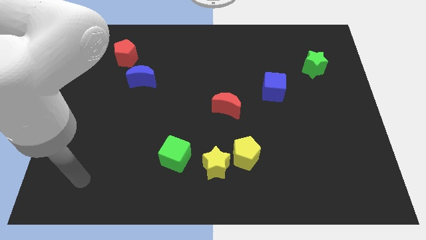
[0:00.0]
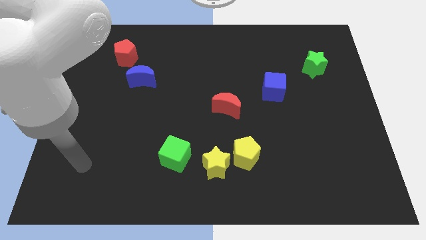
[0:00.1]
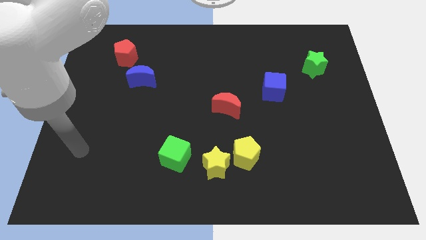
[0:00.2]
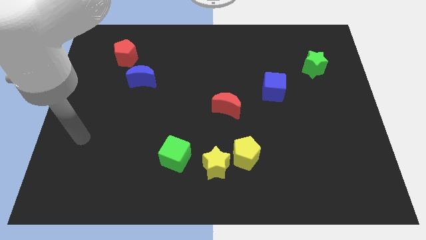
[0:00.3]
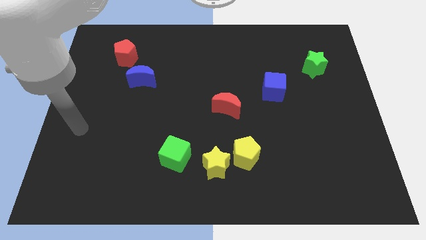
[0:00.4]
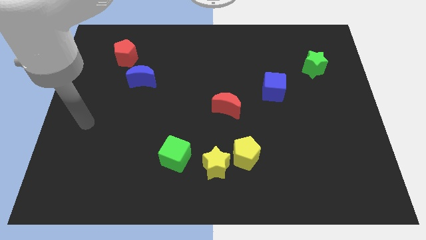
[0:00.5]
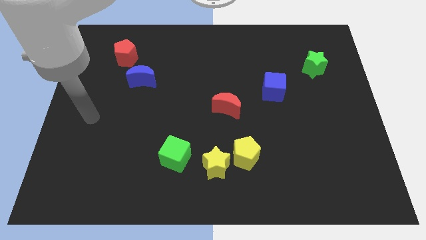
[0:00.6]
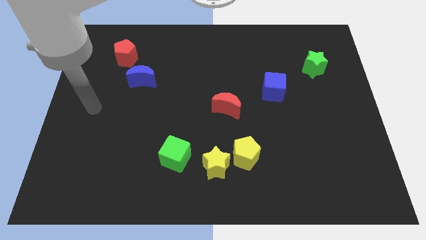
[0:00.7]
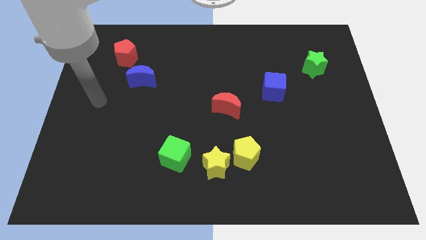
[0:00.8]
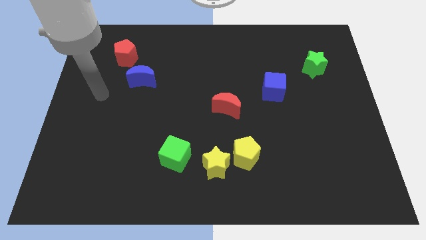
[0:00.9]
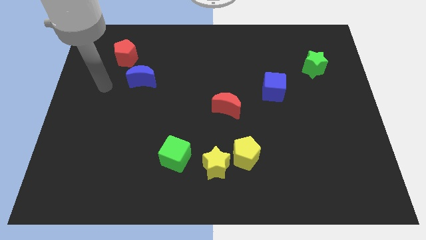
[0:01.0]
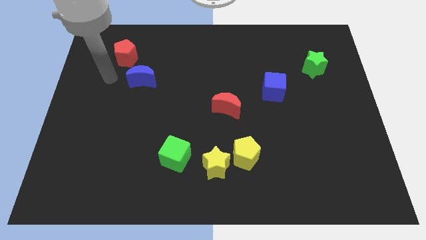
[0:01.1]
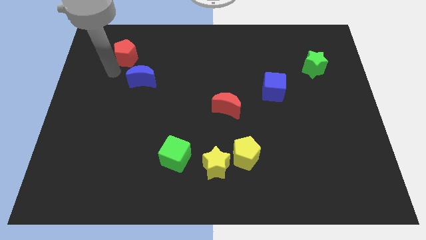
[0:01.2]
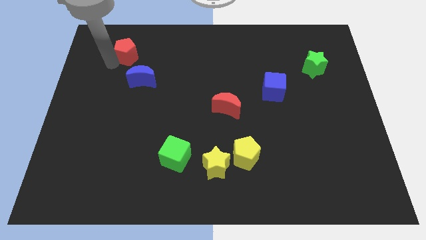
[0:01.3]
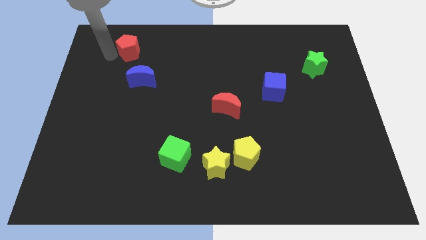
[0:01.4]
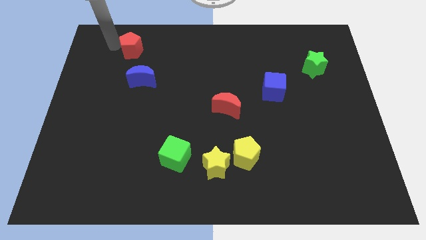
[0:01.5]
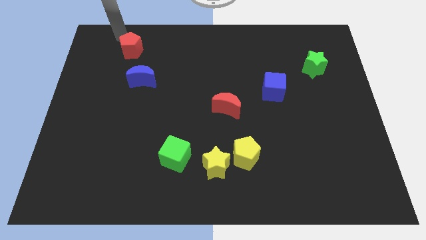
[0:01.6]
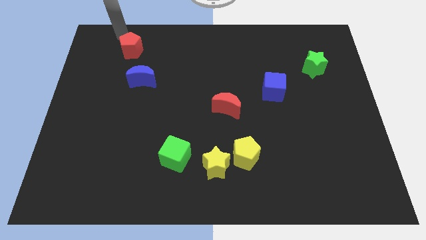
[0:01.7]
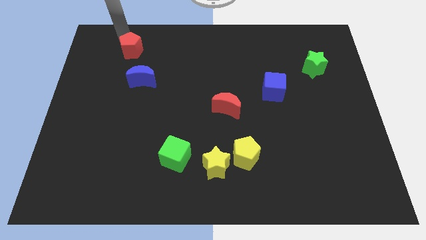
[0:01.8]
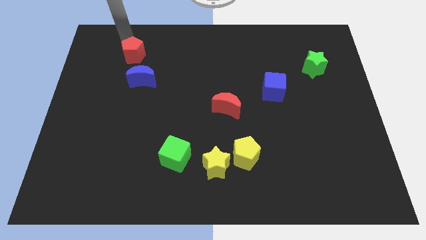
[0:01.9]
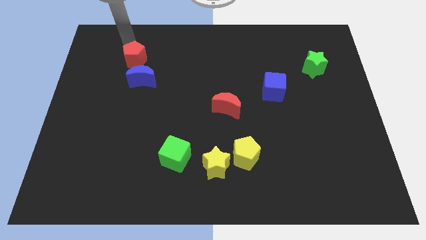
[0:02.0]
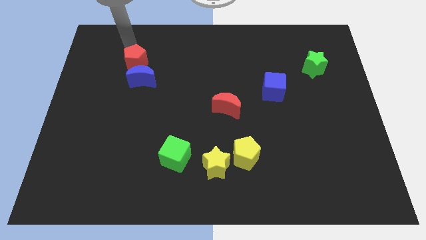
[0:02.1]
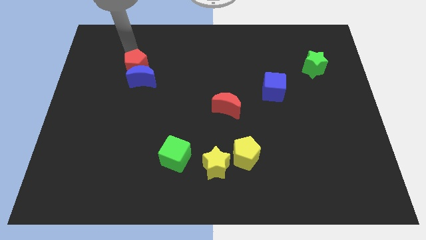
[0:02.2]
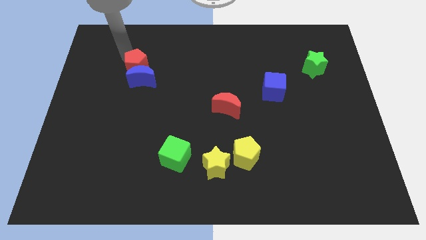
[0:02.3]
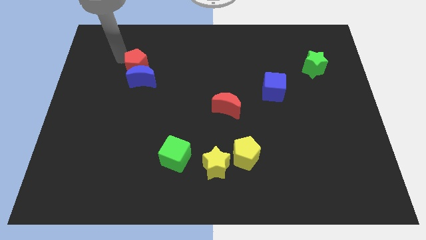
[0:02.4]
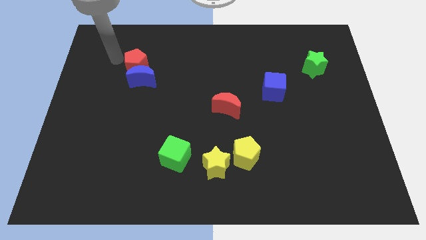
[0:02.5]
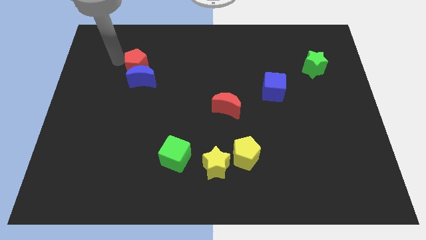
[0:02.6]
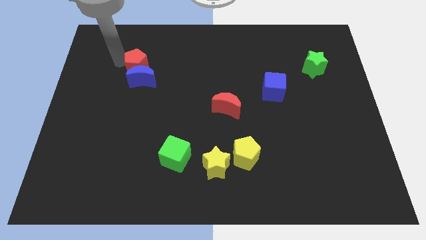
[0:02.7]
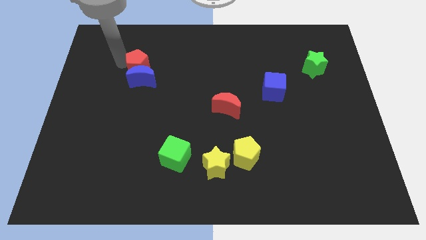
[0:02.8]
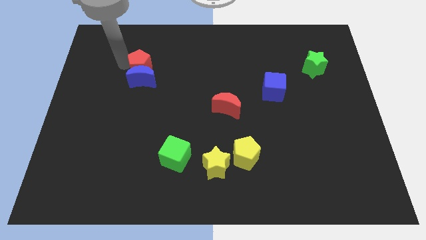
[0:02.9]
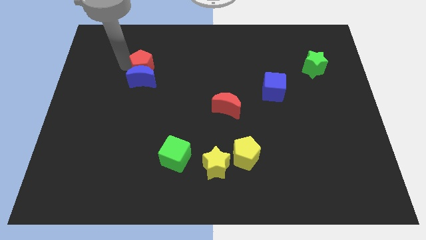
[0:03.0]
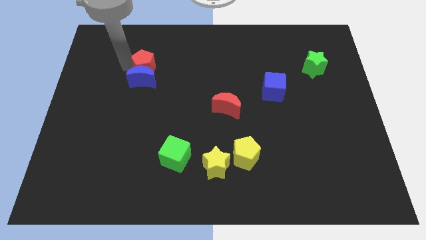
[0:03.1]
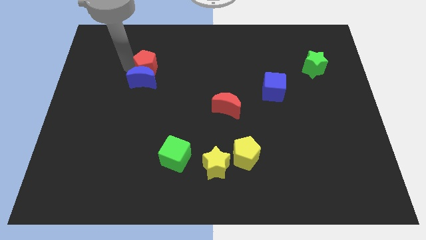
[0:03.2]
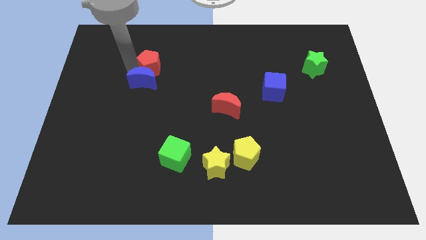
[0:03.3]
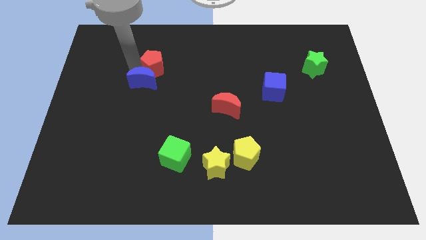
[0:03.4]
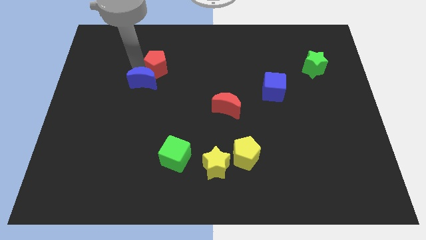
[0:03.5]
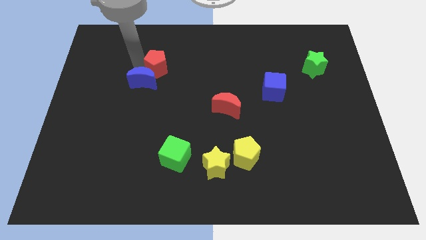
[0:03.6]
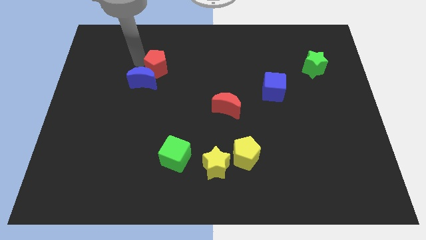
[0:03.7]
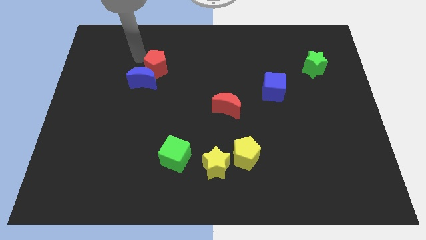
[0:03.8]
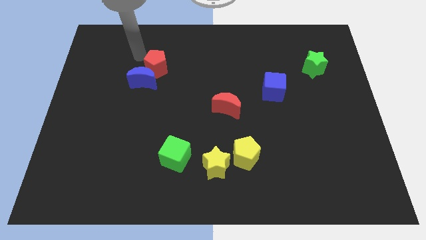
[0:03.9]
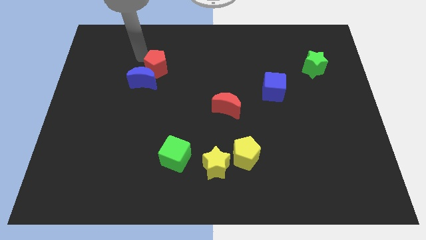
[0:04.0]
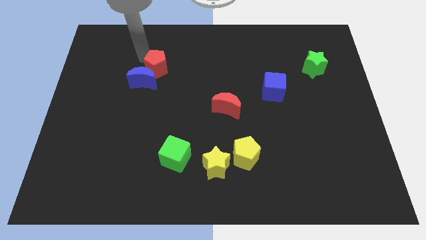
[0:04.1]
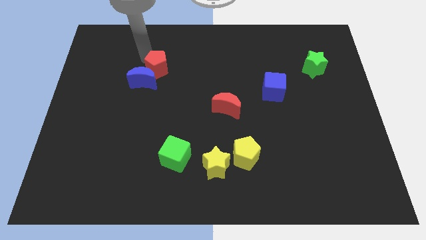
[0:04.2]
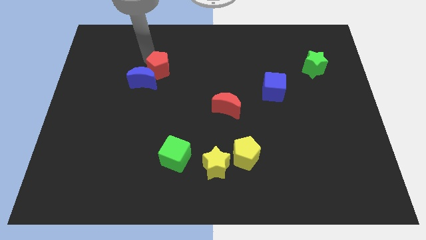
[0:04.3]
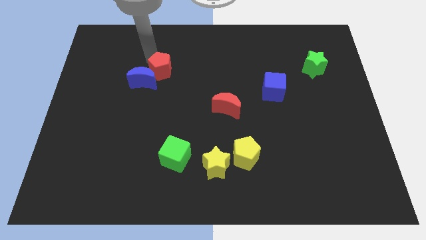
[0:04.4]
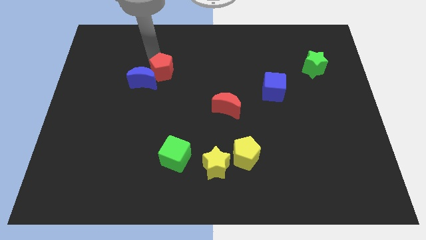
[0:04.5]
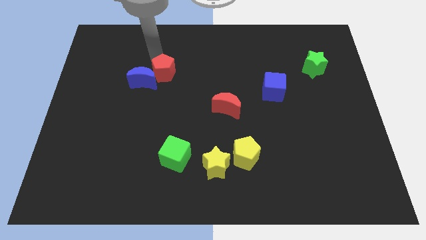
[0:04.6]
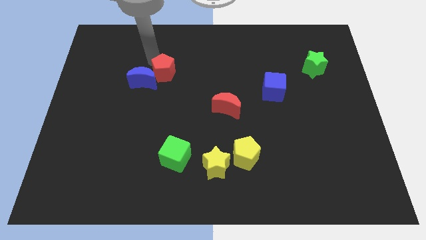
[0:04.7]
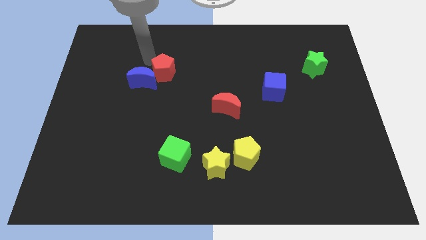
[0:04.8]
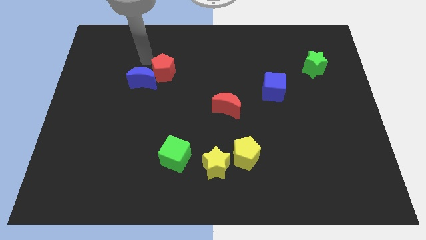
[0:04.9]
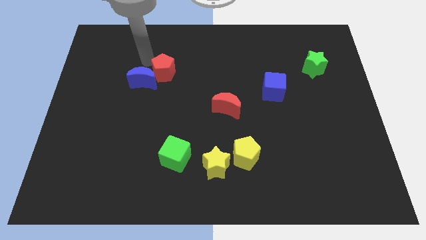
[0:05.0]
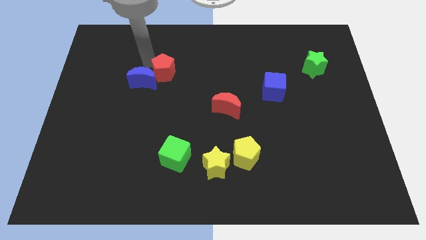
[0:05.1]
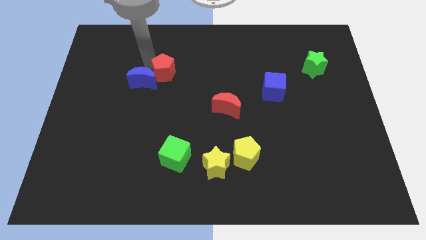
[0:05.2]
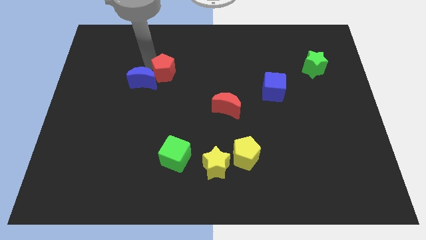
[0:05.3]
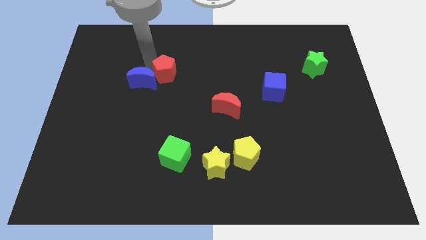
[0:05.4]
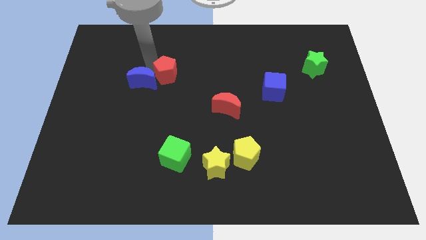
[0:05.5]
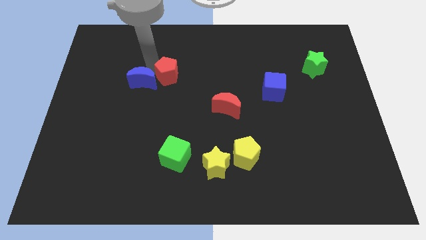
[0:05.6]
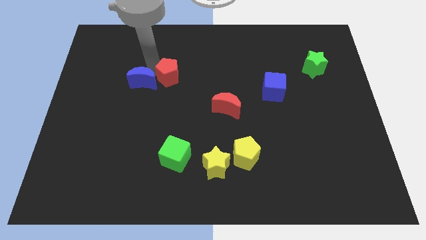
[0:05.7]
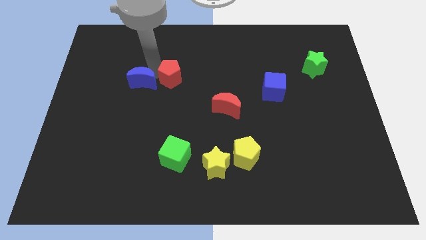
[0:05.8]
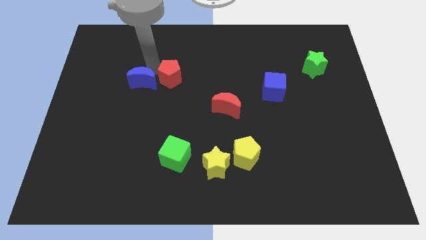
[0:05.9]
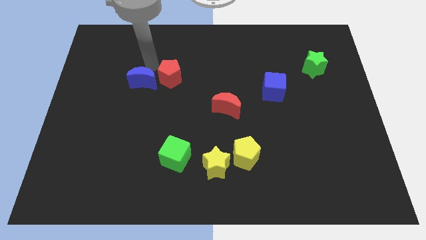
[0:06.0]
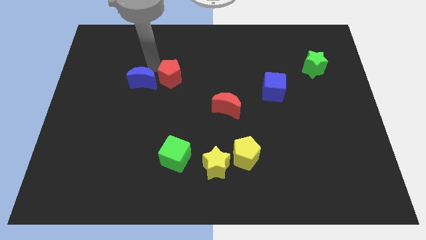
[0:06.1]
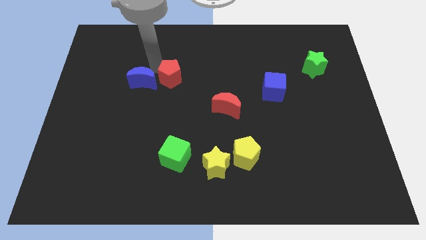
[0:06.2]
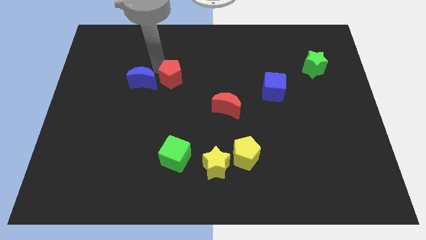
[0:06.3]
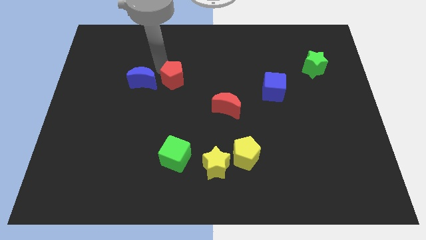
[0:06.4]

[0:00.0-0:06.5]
put the red pentagon to the middle of the board

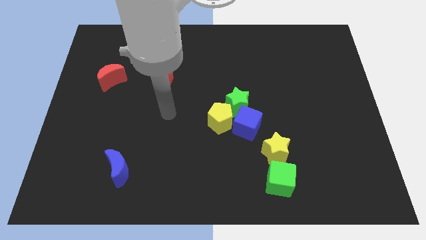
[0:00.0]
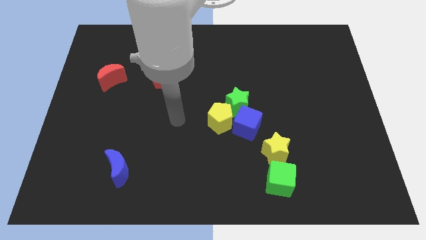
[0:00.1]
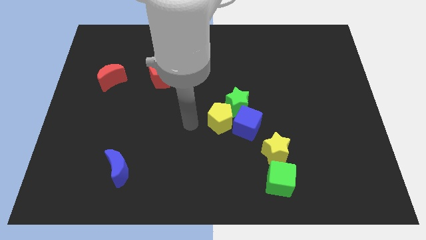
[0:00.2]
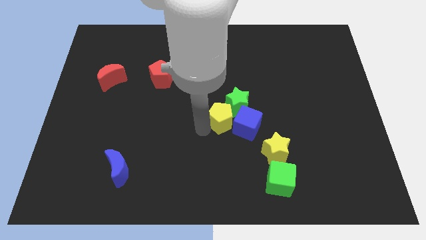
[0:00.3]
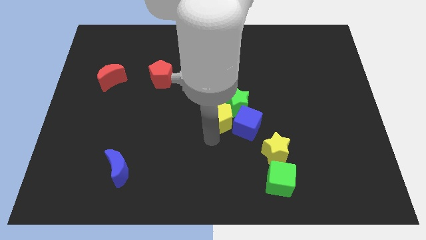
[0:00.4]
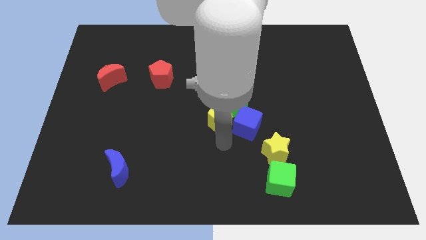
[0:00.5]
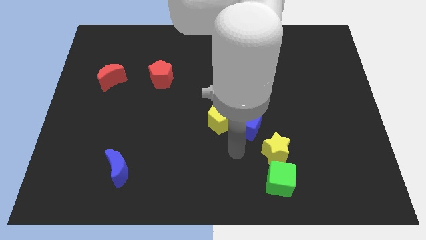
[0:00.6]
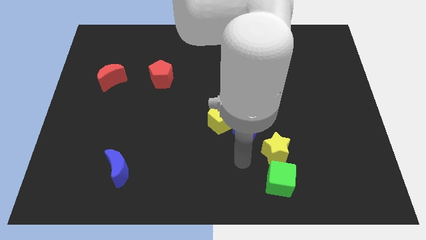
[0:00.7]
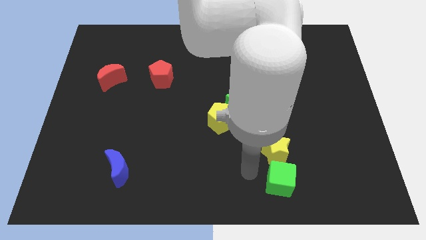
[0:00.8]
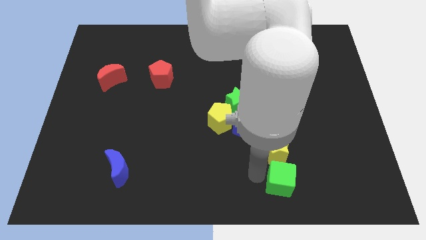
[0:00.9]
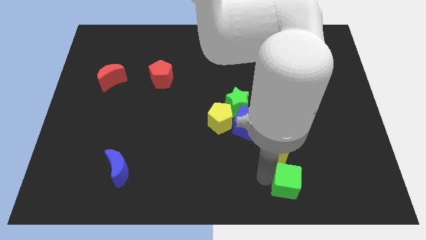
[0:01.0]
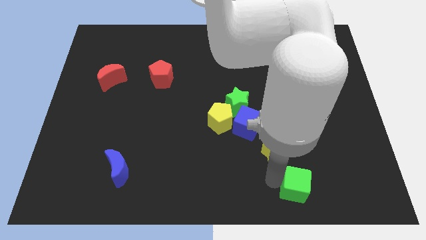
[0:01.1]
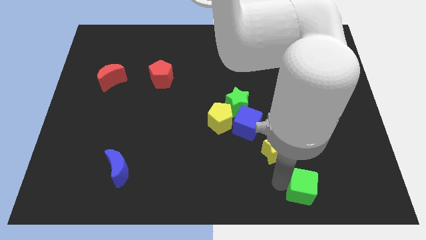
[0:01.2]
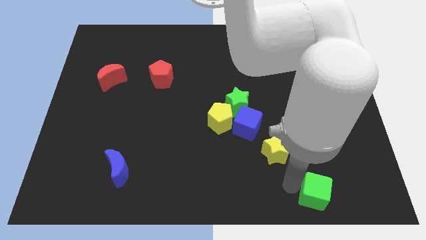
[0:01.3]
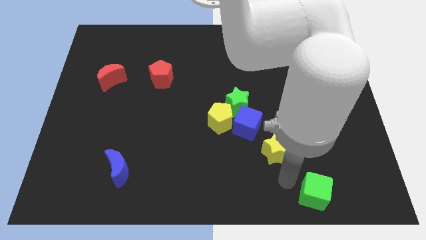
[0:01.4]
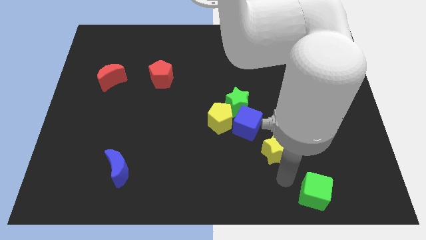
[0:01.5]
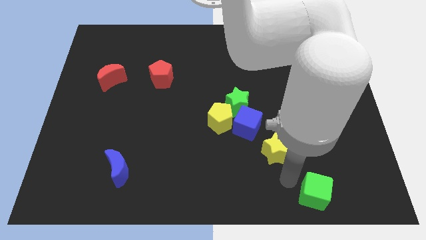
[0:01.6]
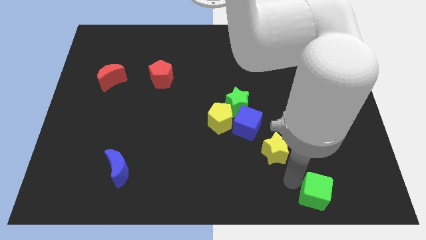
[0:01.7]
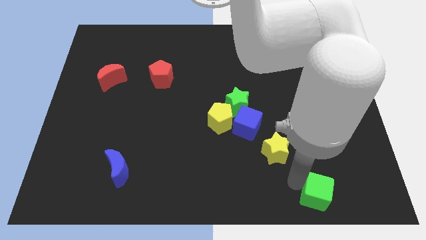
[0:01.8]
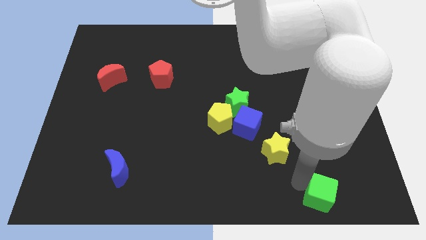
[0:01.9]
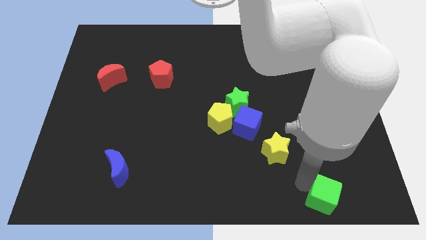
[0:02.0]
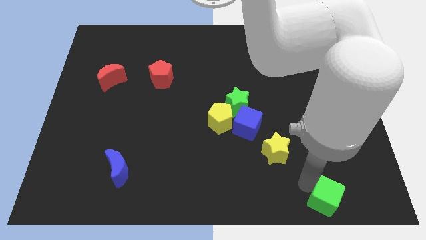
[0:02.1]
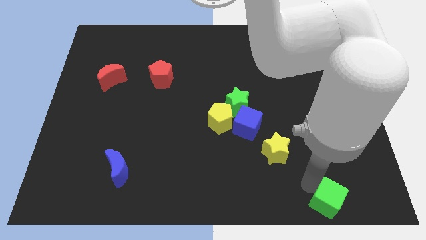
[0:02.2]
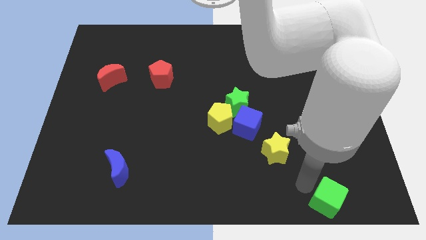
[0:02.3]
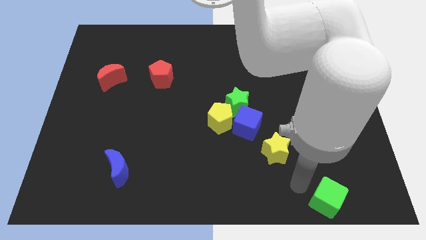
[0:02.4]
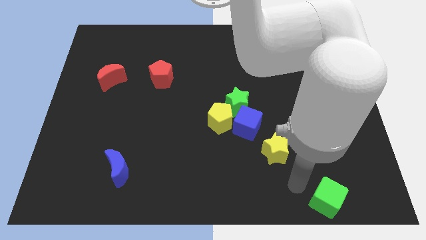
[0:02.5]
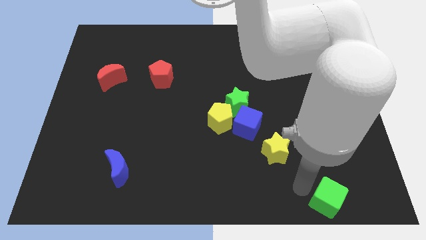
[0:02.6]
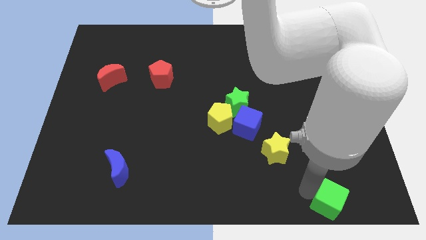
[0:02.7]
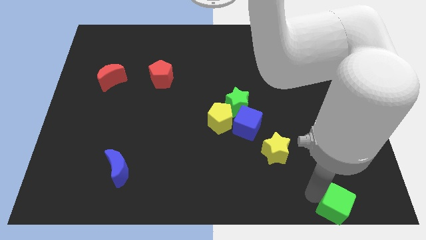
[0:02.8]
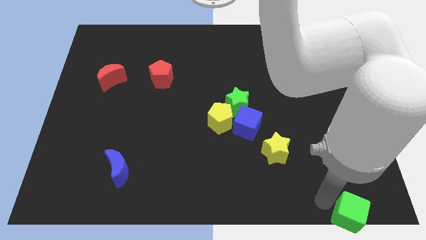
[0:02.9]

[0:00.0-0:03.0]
move the green cube to the bottom right corner
